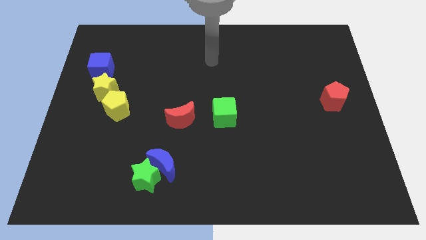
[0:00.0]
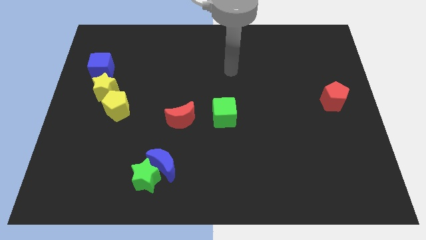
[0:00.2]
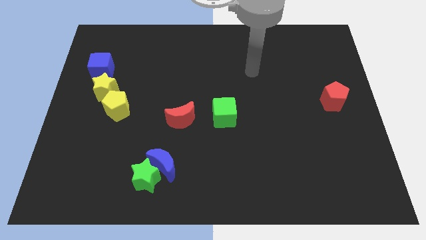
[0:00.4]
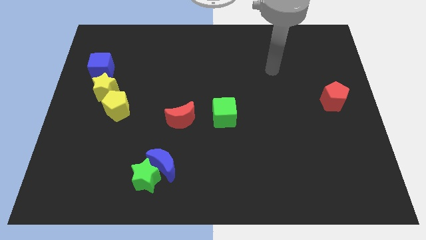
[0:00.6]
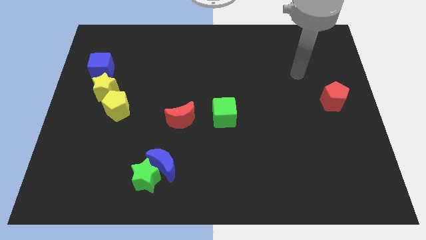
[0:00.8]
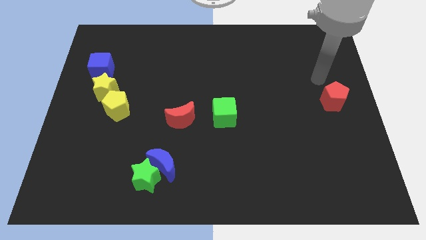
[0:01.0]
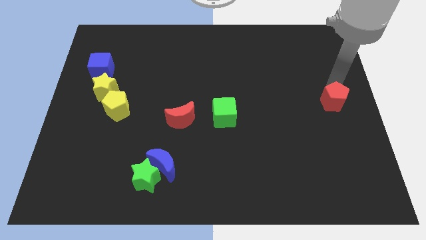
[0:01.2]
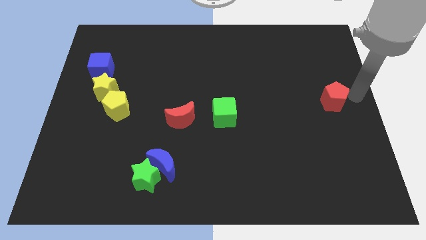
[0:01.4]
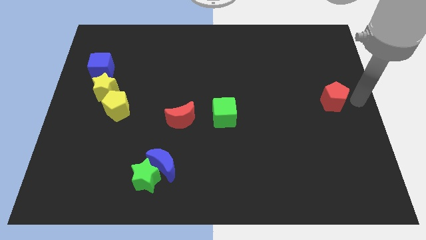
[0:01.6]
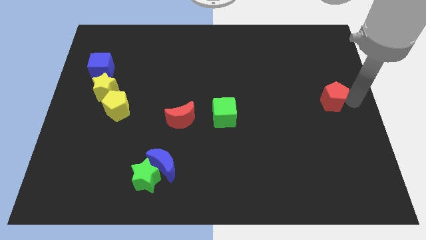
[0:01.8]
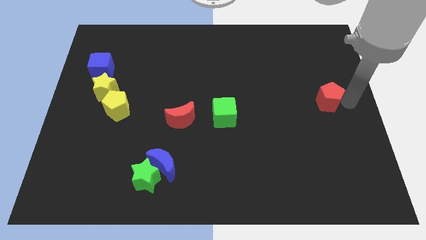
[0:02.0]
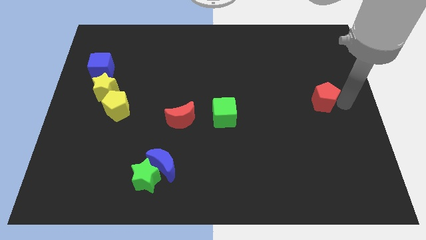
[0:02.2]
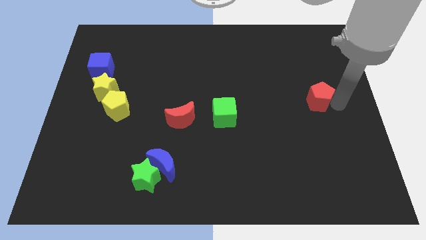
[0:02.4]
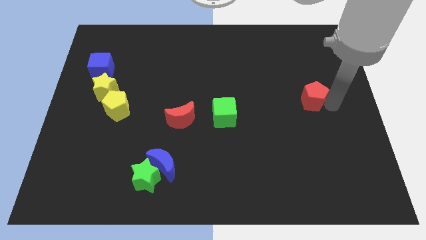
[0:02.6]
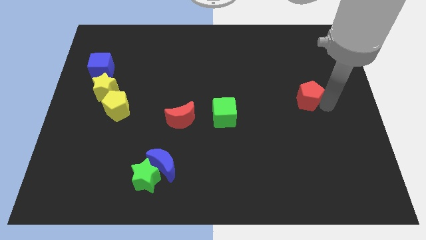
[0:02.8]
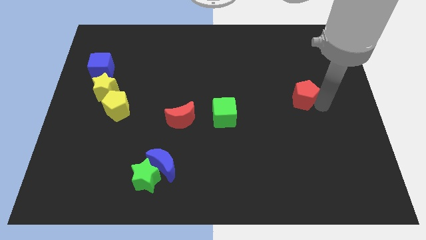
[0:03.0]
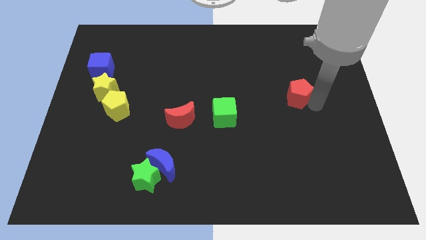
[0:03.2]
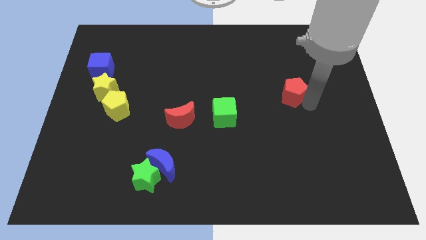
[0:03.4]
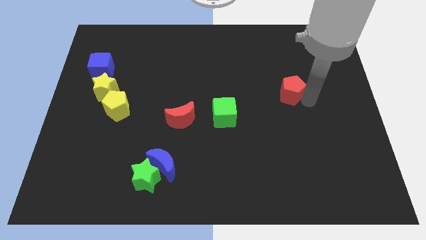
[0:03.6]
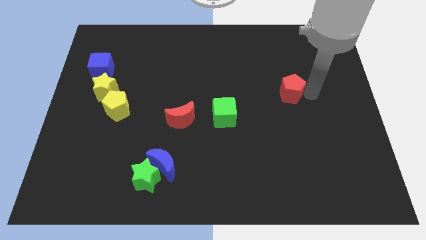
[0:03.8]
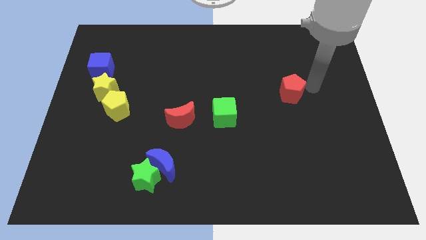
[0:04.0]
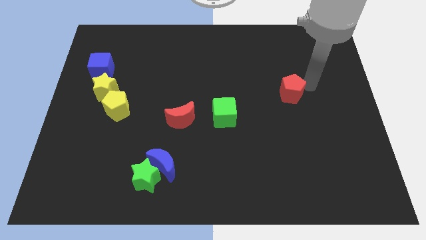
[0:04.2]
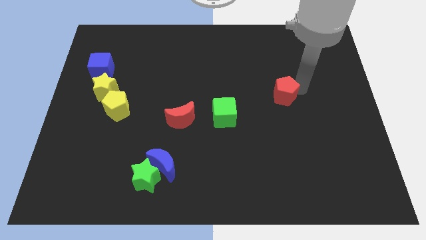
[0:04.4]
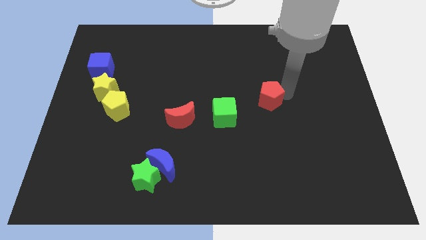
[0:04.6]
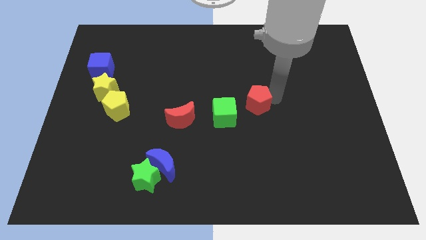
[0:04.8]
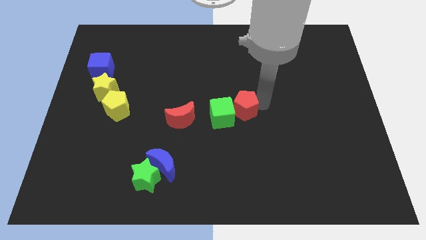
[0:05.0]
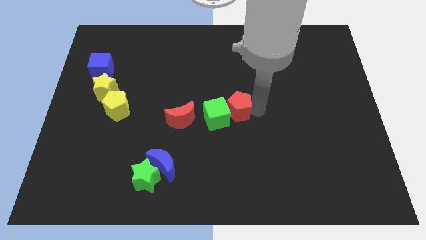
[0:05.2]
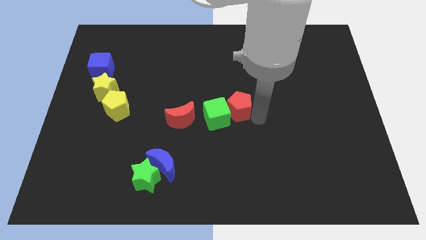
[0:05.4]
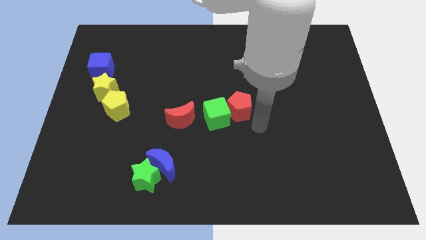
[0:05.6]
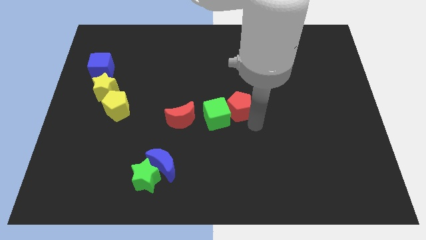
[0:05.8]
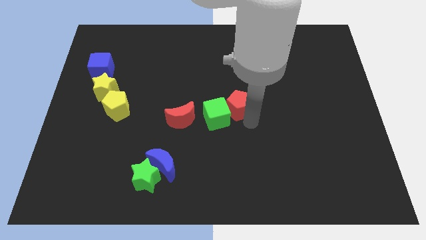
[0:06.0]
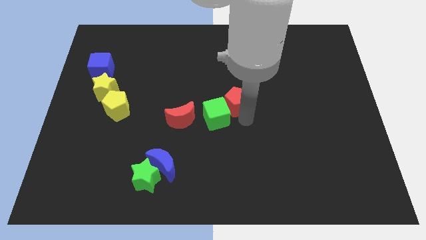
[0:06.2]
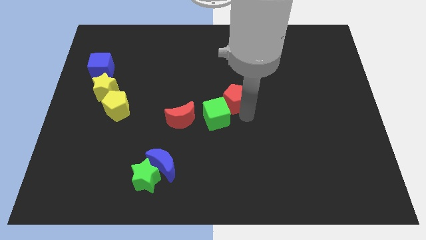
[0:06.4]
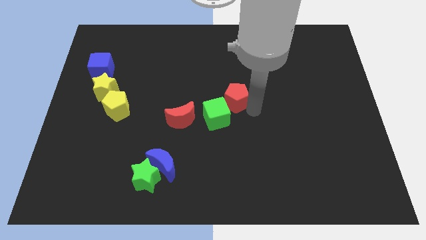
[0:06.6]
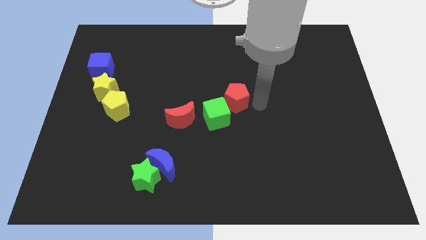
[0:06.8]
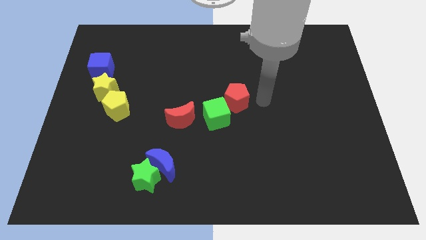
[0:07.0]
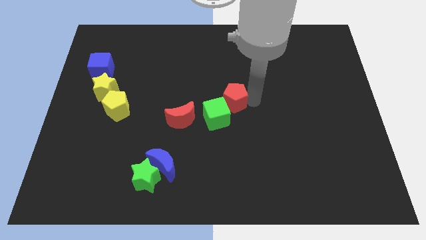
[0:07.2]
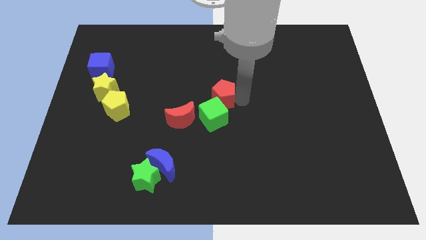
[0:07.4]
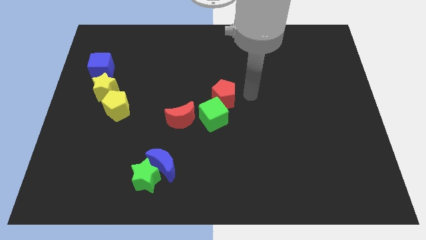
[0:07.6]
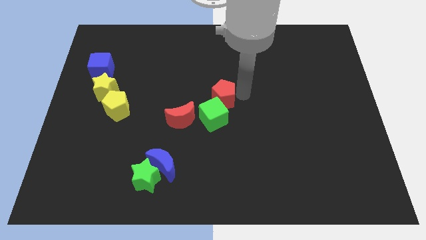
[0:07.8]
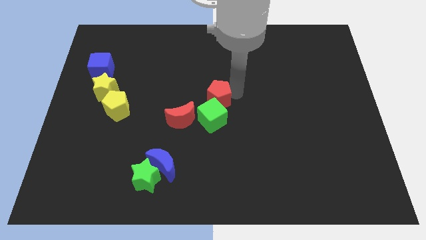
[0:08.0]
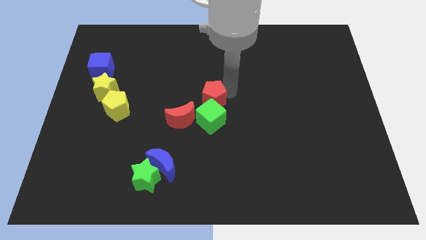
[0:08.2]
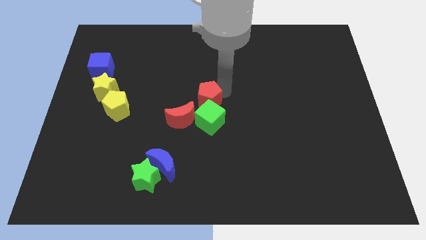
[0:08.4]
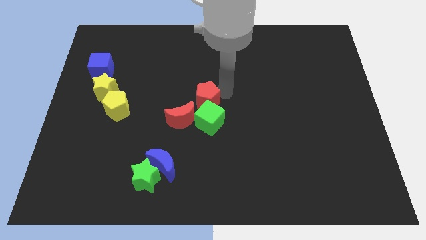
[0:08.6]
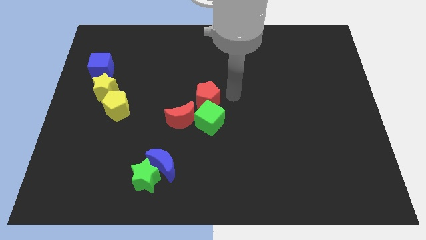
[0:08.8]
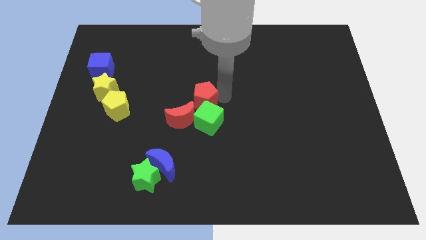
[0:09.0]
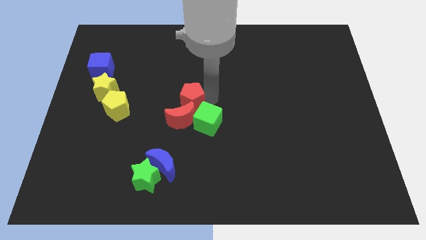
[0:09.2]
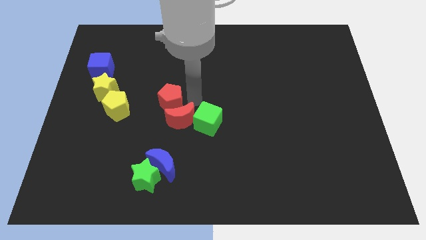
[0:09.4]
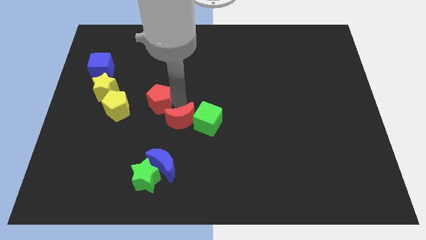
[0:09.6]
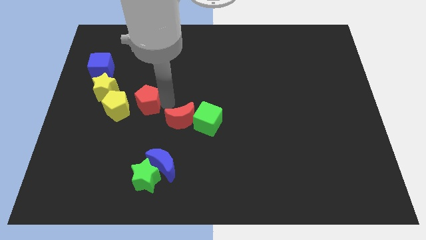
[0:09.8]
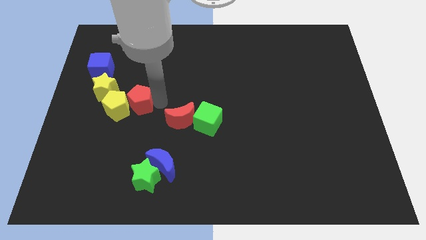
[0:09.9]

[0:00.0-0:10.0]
move the red pentagon to the yellow pentagon

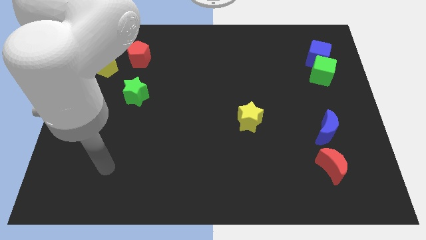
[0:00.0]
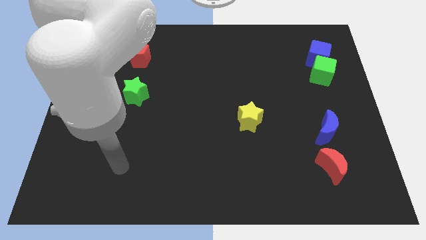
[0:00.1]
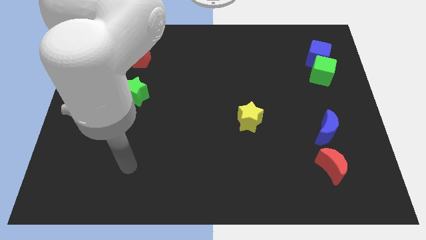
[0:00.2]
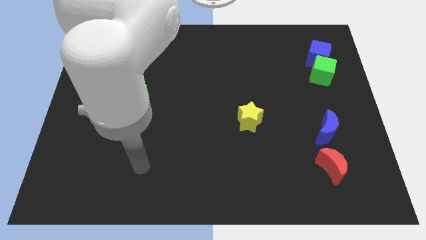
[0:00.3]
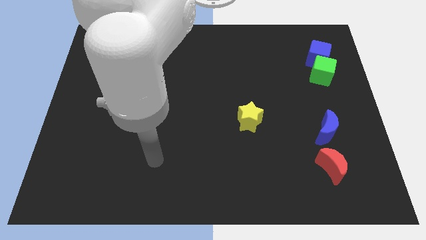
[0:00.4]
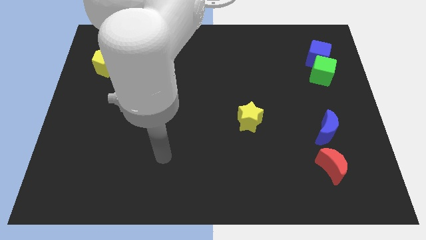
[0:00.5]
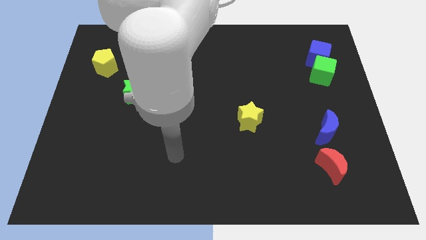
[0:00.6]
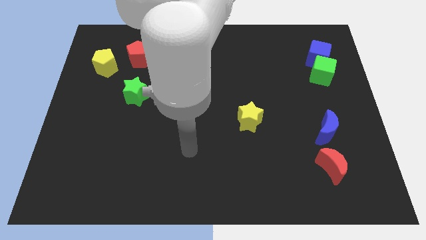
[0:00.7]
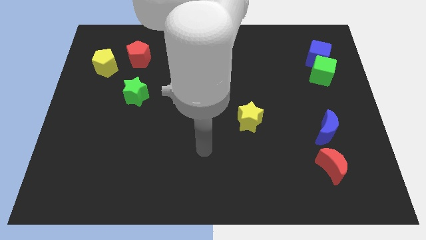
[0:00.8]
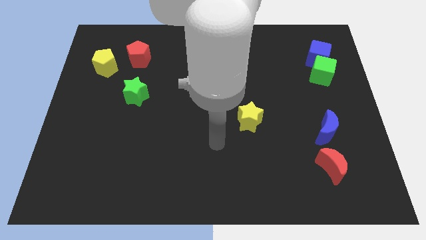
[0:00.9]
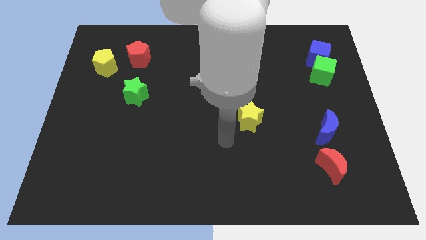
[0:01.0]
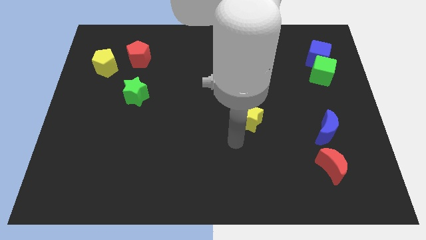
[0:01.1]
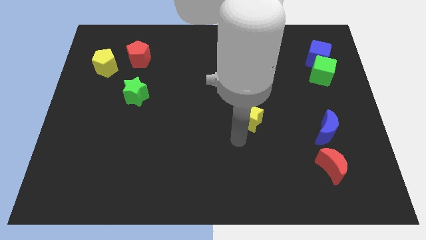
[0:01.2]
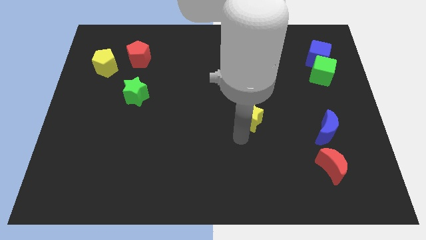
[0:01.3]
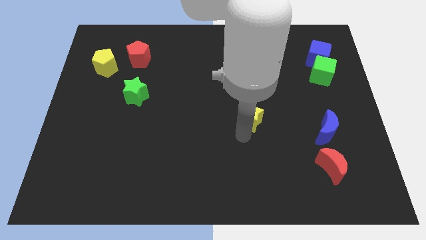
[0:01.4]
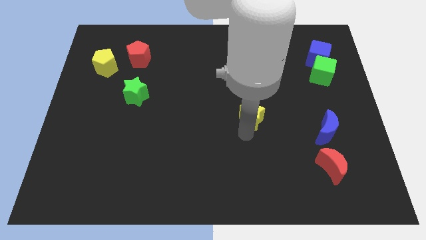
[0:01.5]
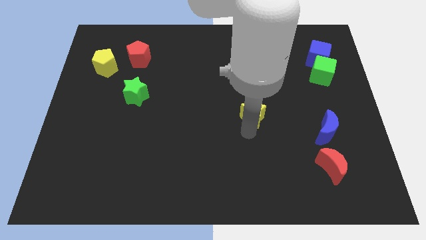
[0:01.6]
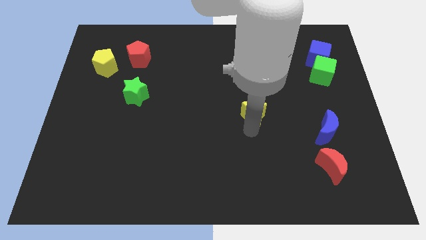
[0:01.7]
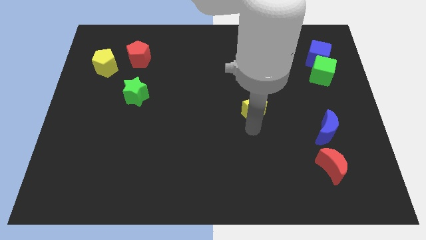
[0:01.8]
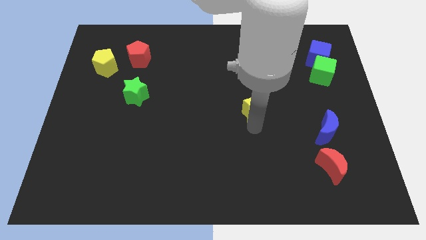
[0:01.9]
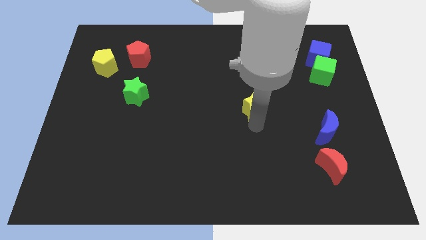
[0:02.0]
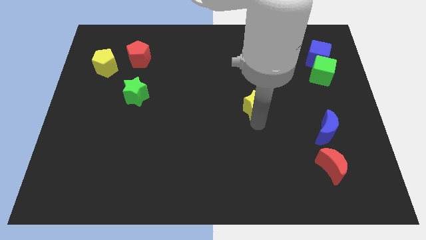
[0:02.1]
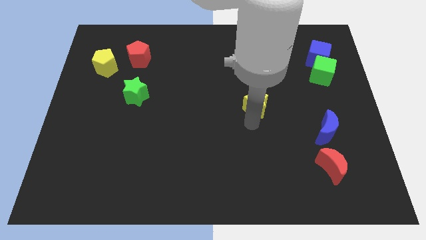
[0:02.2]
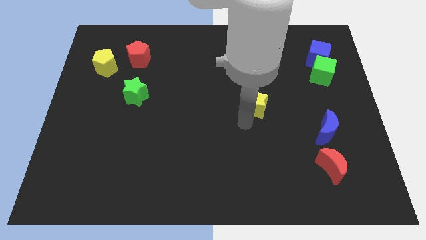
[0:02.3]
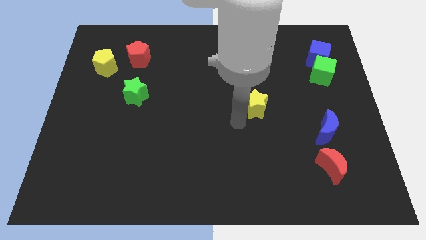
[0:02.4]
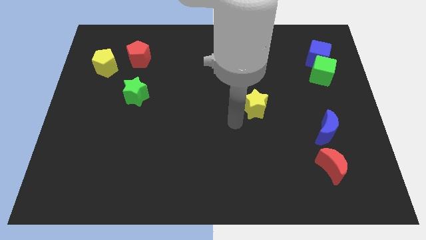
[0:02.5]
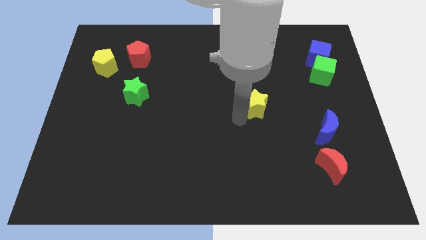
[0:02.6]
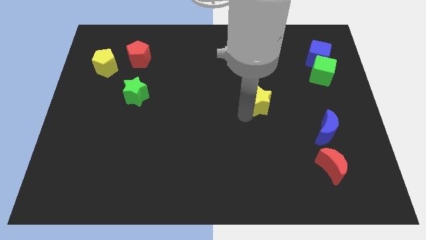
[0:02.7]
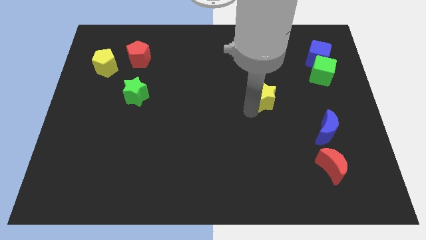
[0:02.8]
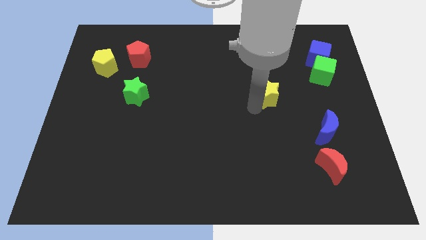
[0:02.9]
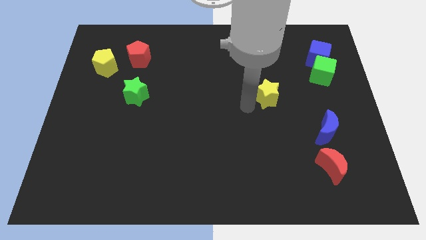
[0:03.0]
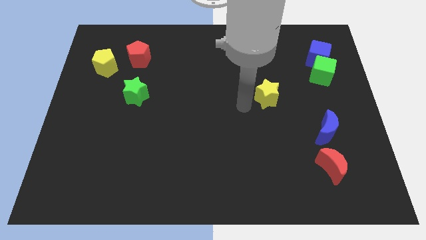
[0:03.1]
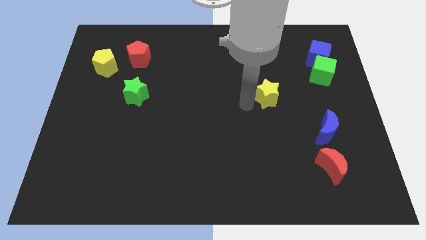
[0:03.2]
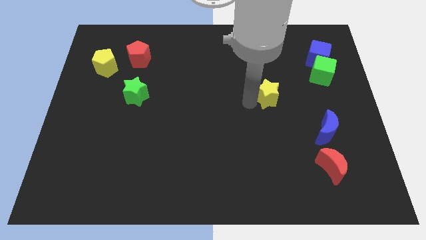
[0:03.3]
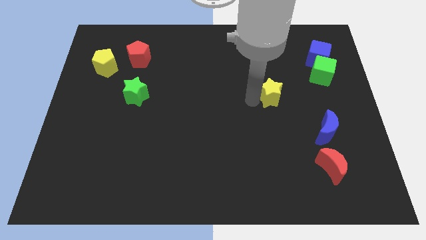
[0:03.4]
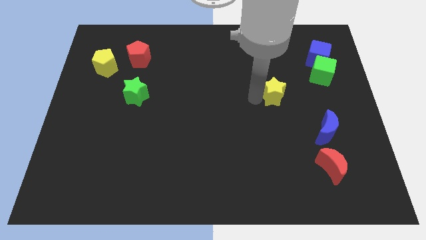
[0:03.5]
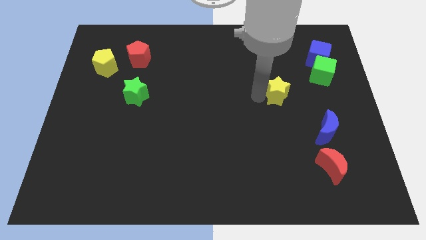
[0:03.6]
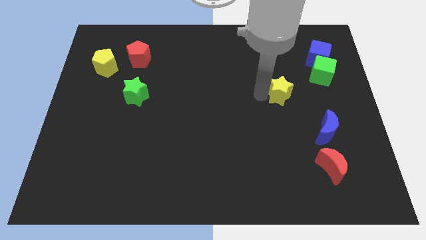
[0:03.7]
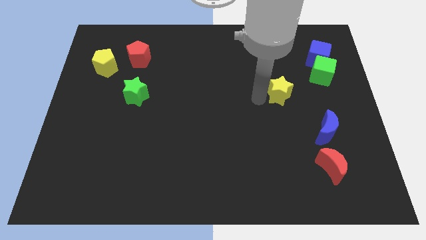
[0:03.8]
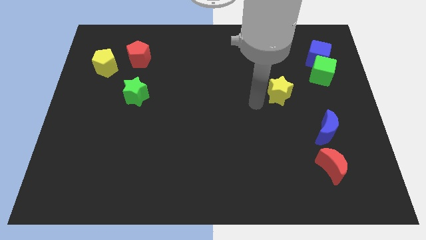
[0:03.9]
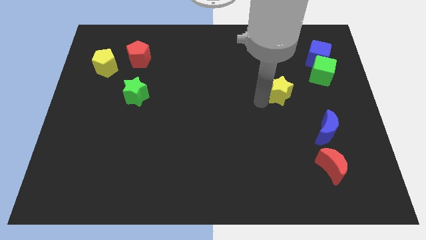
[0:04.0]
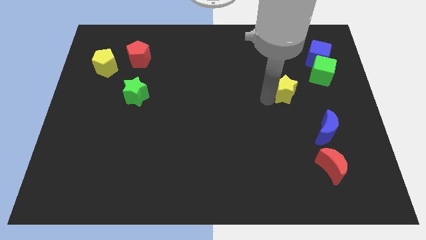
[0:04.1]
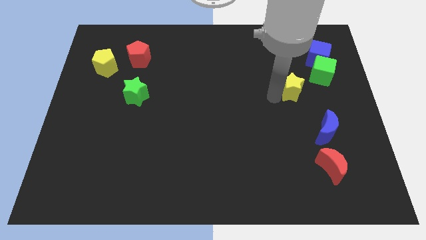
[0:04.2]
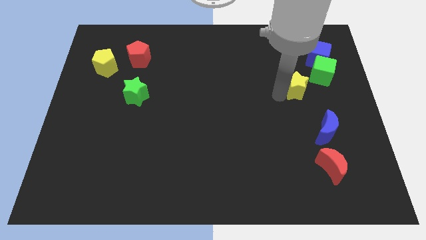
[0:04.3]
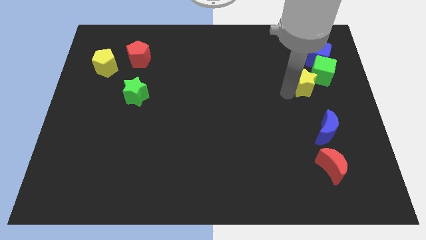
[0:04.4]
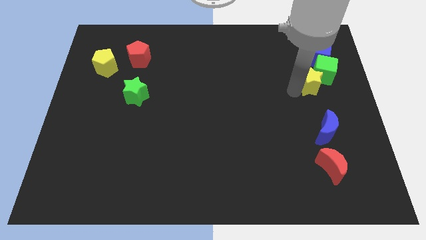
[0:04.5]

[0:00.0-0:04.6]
slide the yellow star to the green cube
